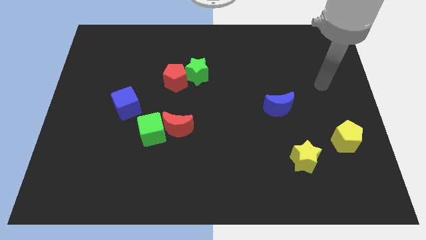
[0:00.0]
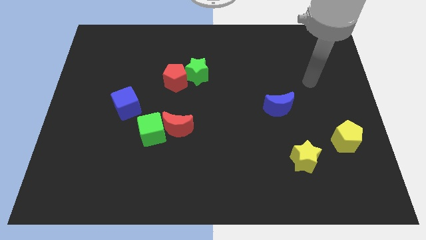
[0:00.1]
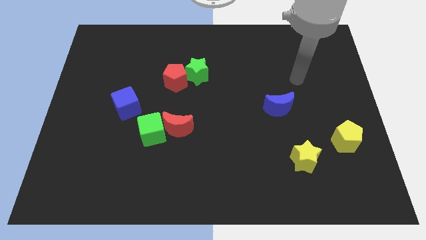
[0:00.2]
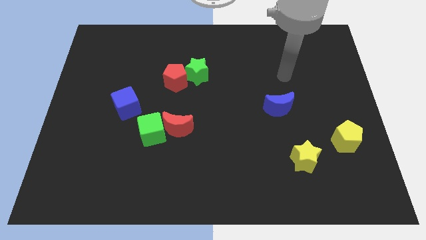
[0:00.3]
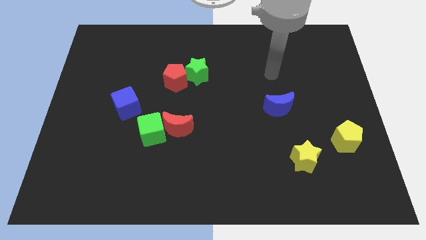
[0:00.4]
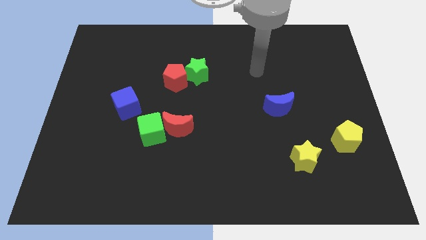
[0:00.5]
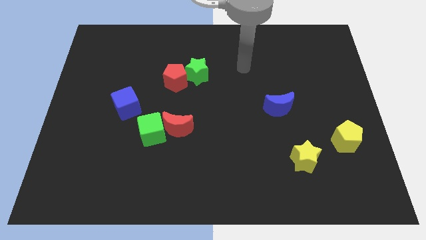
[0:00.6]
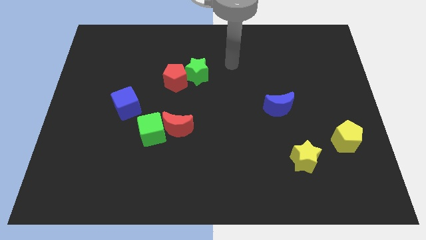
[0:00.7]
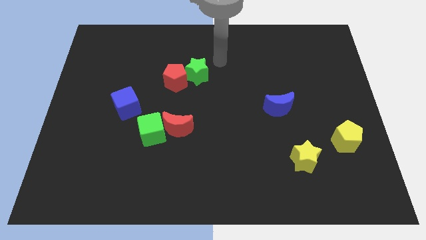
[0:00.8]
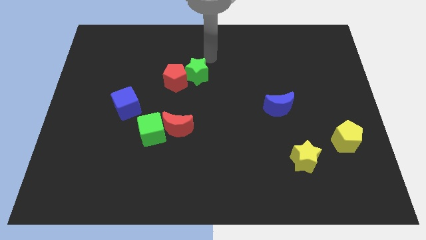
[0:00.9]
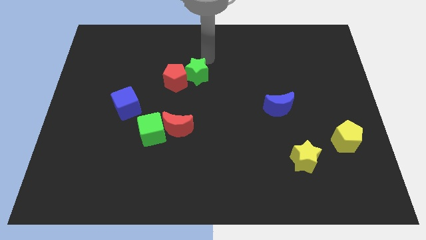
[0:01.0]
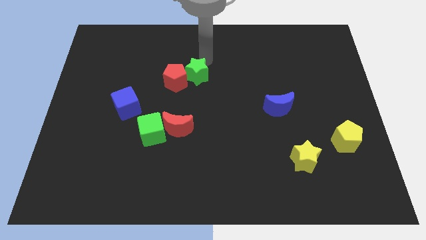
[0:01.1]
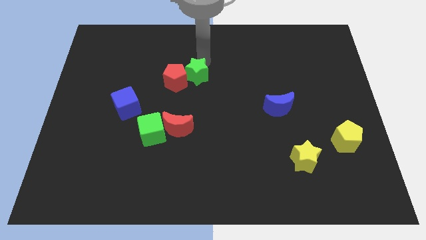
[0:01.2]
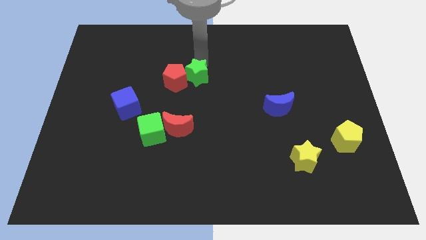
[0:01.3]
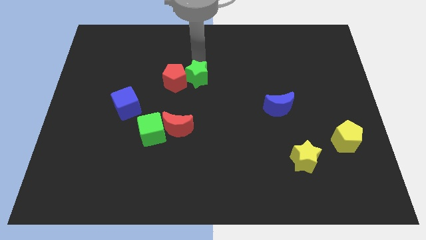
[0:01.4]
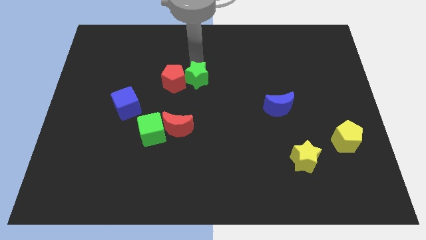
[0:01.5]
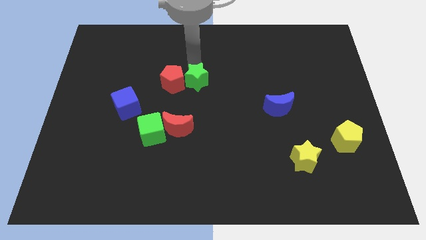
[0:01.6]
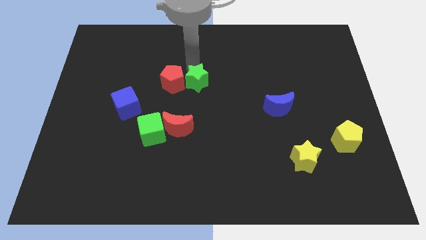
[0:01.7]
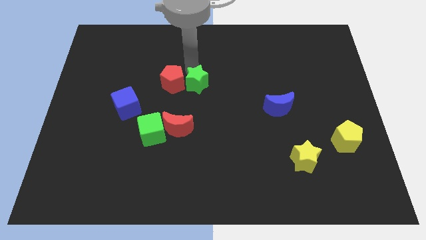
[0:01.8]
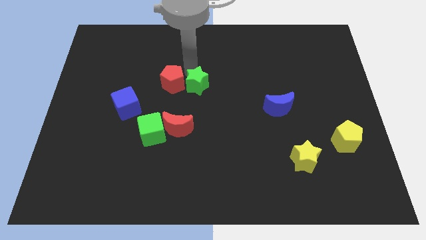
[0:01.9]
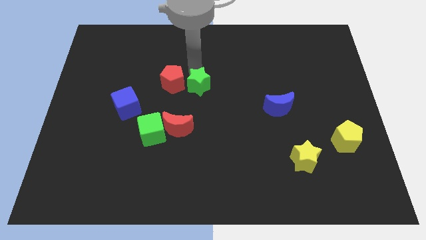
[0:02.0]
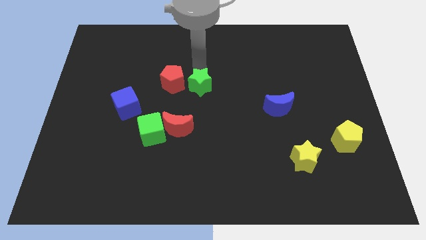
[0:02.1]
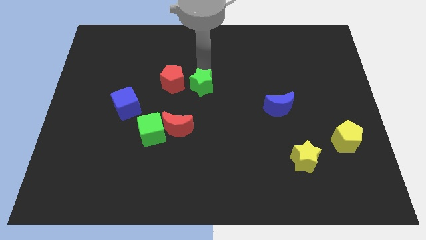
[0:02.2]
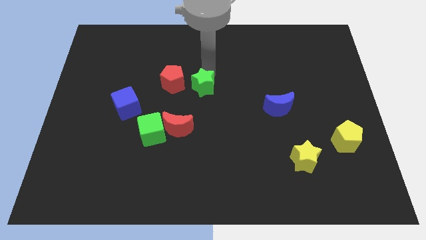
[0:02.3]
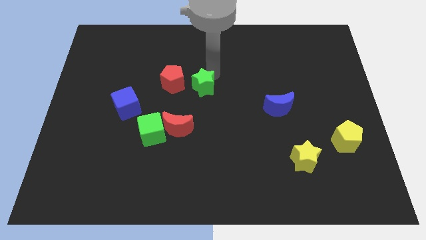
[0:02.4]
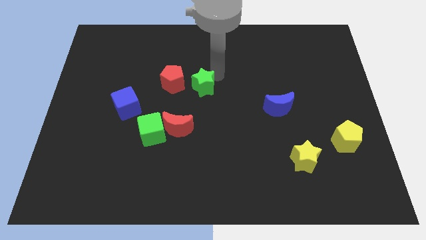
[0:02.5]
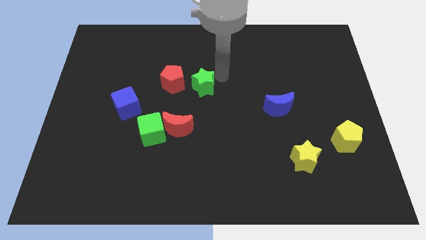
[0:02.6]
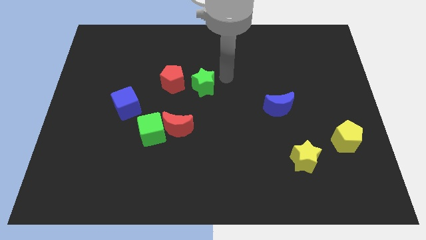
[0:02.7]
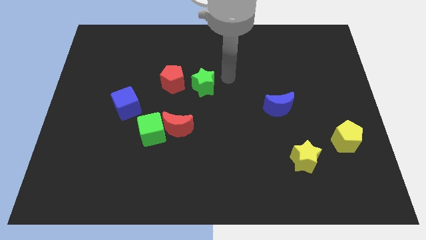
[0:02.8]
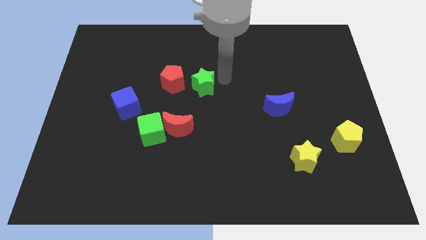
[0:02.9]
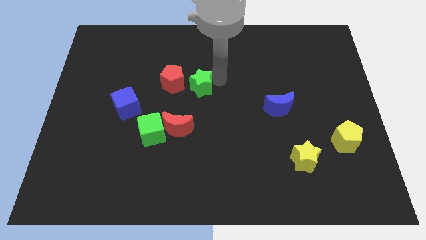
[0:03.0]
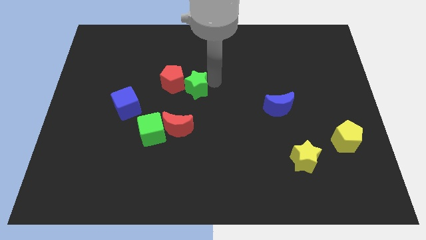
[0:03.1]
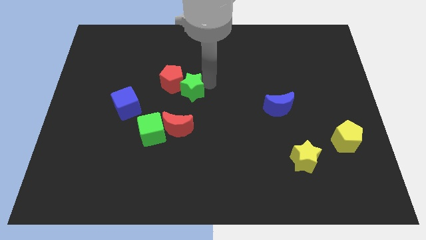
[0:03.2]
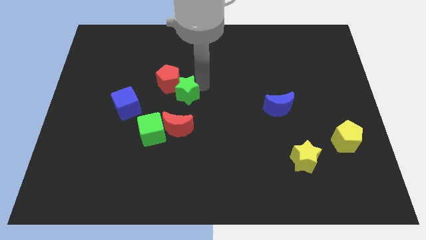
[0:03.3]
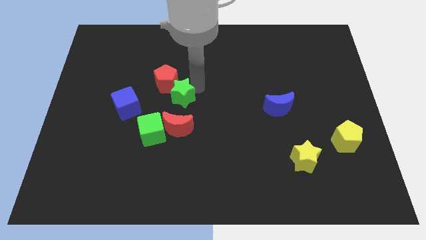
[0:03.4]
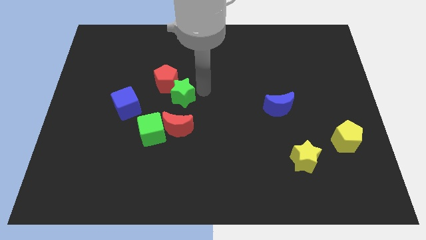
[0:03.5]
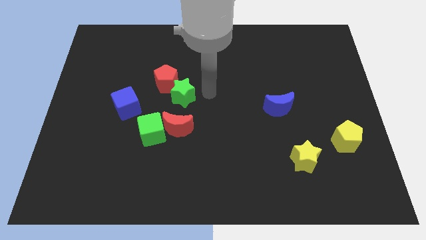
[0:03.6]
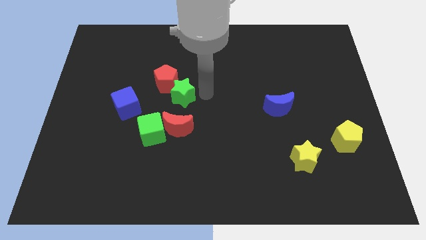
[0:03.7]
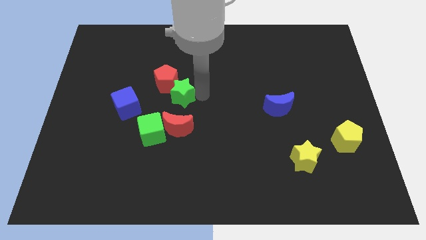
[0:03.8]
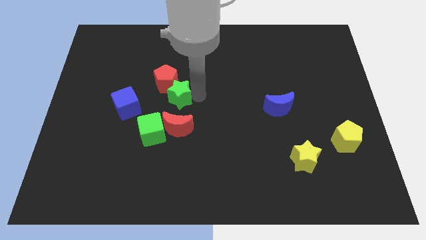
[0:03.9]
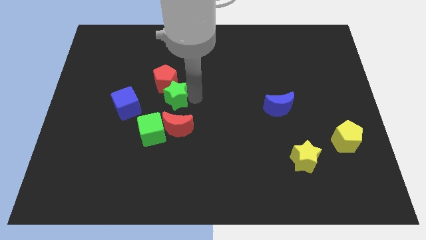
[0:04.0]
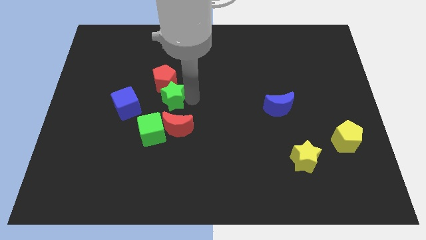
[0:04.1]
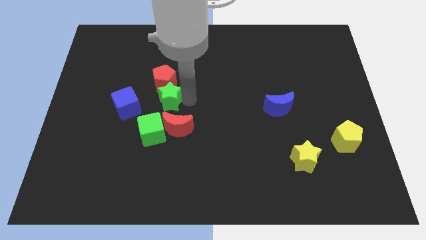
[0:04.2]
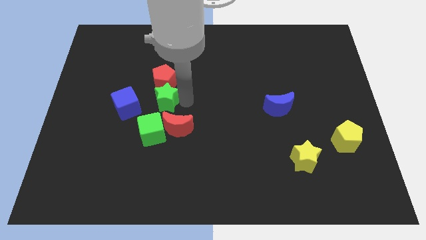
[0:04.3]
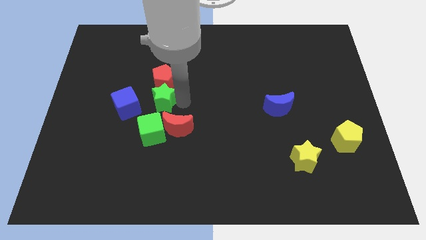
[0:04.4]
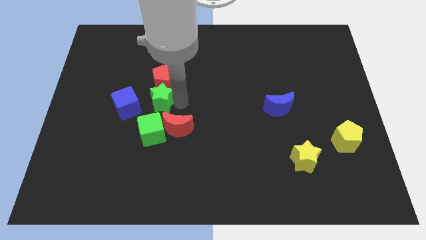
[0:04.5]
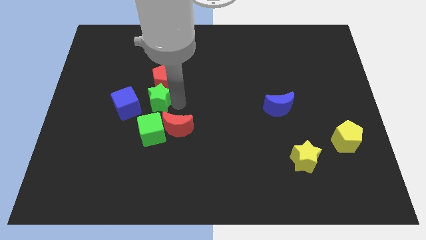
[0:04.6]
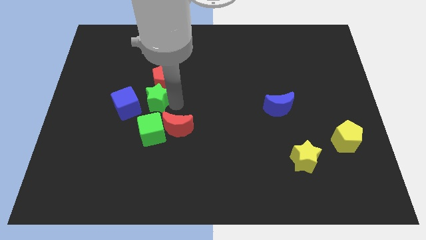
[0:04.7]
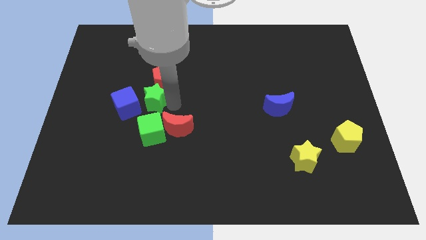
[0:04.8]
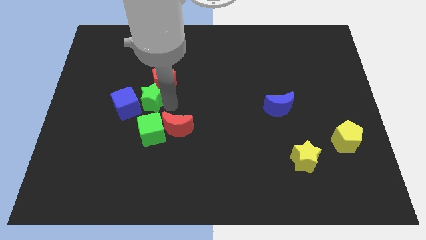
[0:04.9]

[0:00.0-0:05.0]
put the green star towards the blue cube

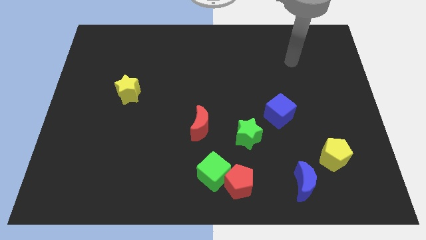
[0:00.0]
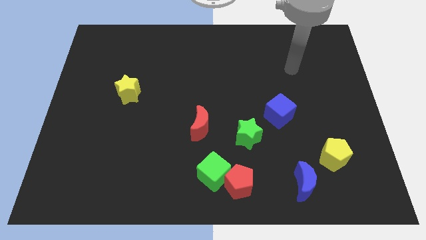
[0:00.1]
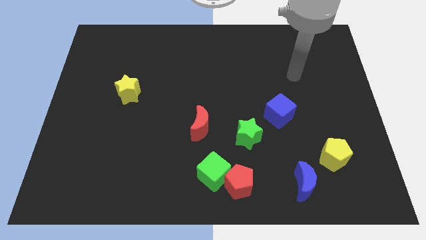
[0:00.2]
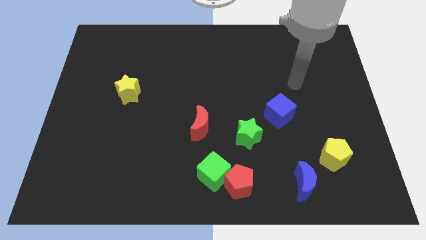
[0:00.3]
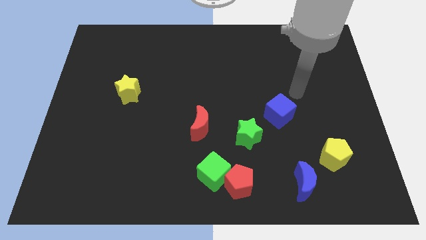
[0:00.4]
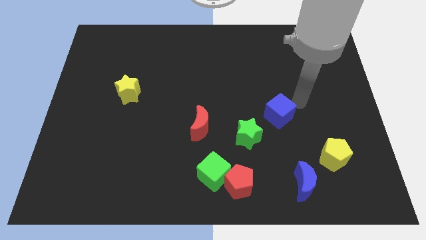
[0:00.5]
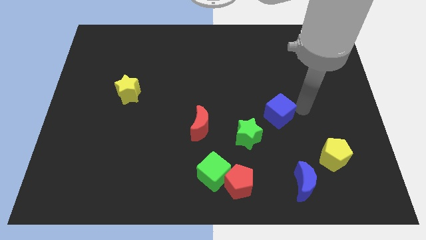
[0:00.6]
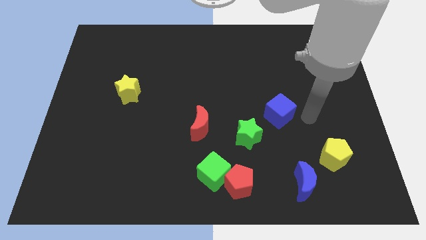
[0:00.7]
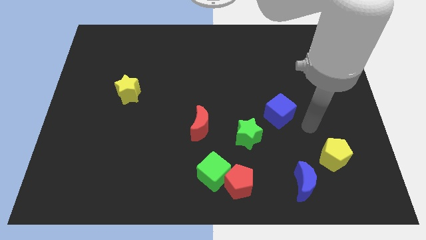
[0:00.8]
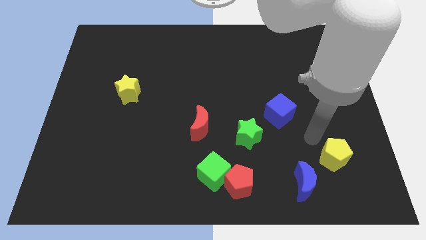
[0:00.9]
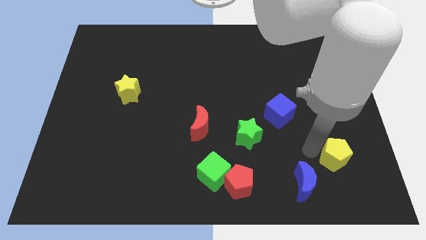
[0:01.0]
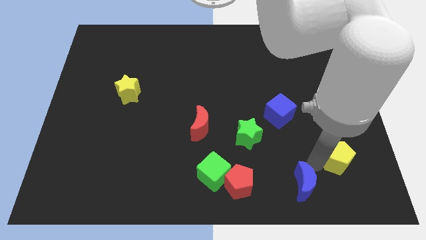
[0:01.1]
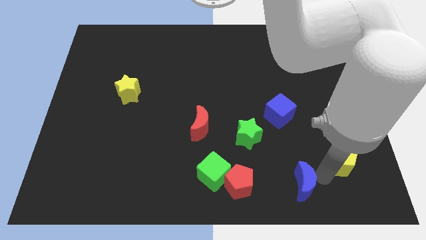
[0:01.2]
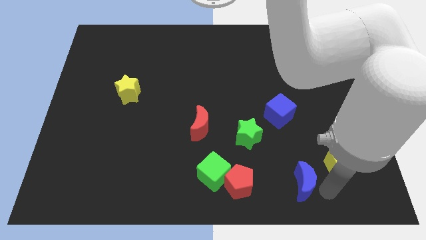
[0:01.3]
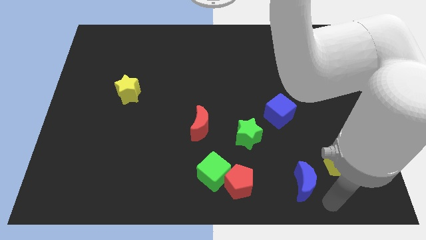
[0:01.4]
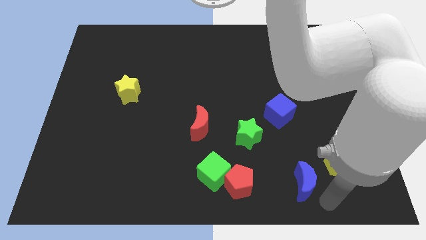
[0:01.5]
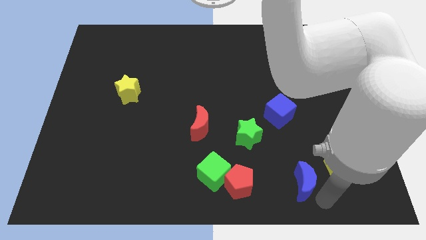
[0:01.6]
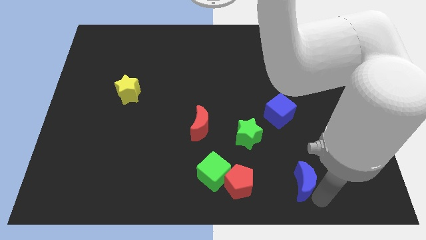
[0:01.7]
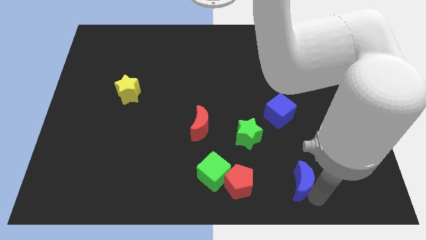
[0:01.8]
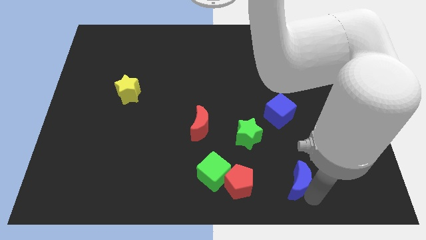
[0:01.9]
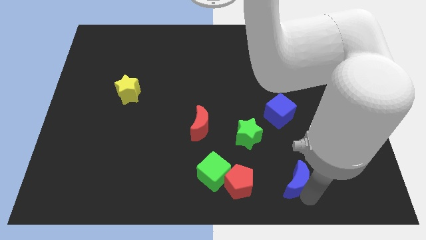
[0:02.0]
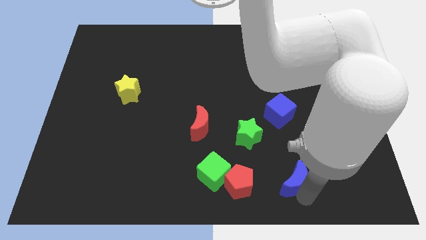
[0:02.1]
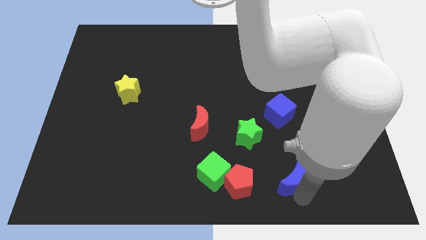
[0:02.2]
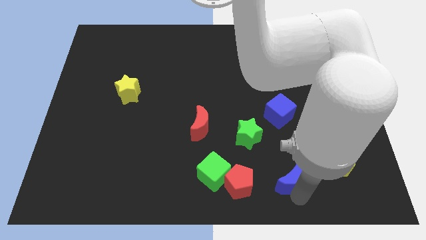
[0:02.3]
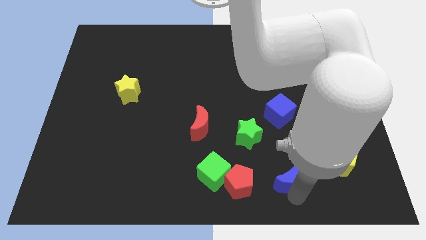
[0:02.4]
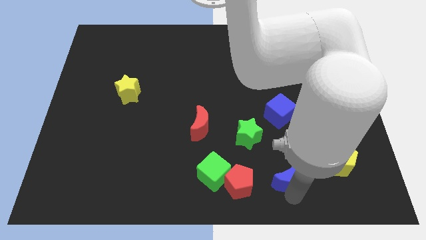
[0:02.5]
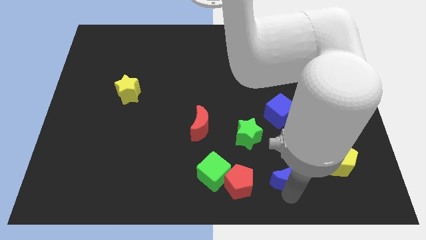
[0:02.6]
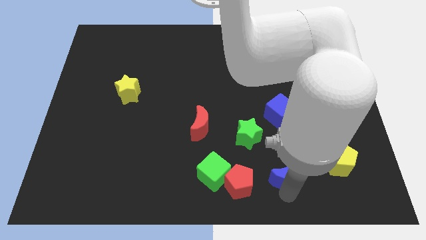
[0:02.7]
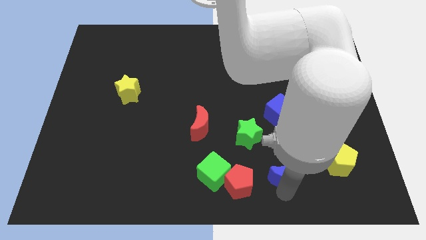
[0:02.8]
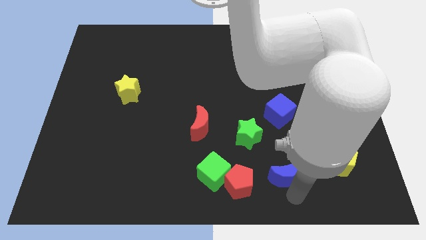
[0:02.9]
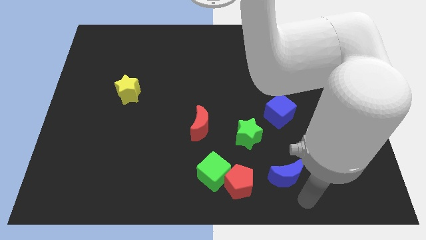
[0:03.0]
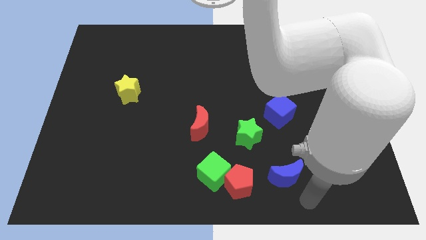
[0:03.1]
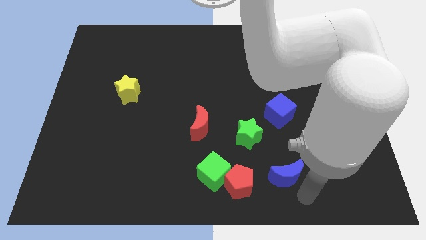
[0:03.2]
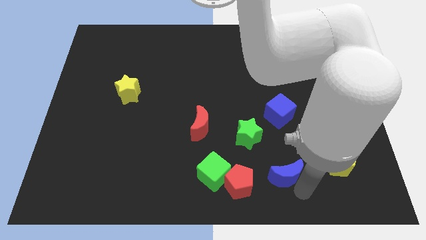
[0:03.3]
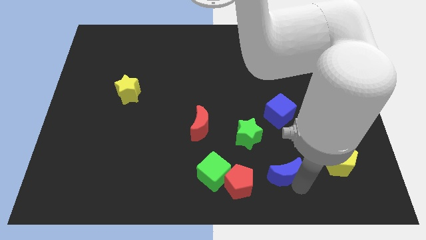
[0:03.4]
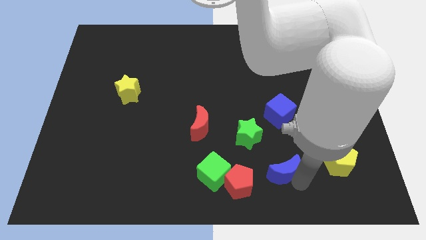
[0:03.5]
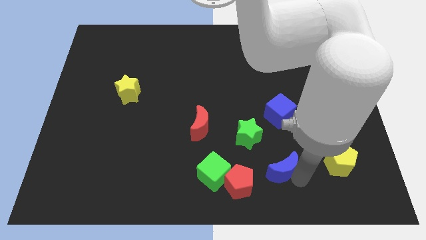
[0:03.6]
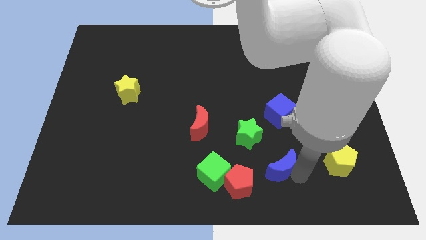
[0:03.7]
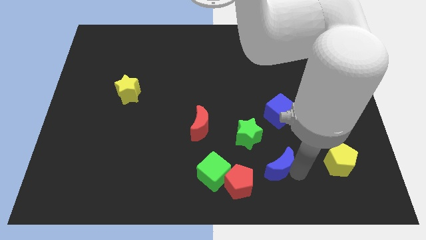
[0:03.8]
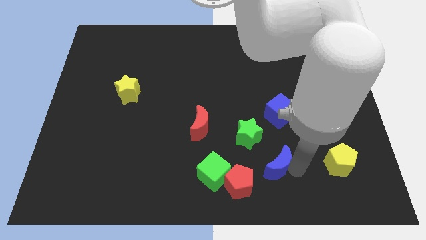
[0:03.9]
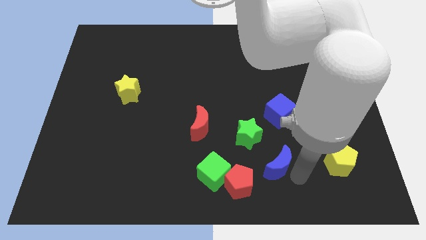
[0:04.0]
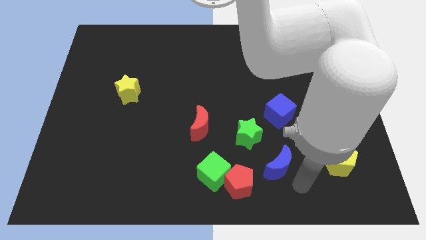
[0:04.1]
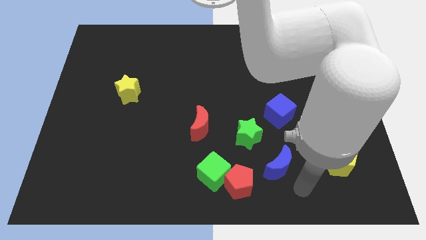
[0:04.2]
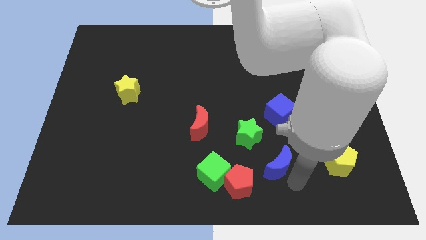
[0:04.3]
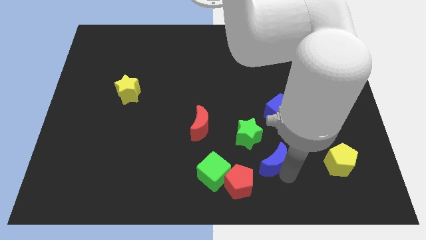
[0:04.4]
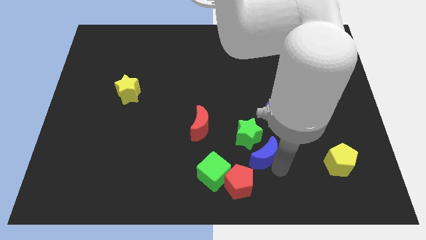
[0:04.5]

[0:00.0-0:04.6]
slide the blue moon next to the green star
